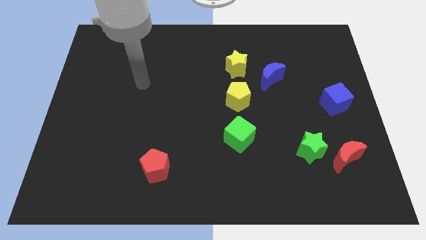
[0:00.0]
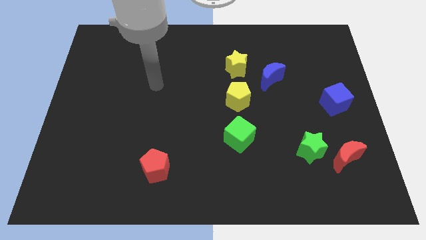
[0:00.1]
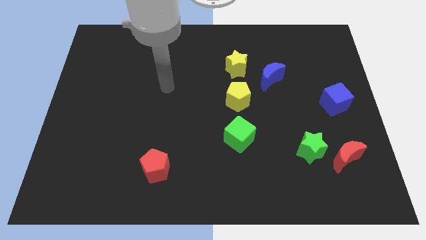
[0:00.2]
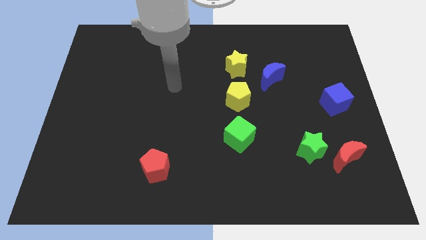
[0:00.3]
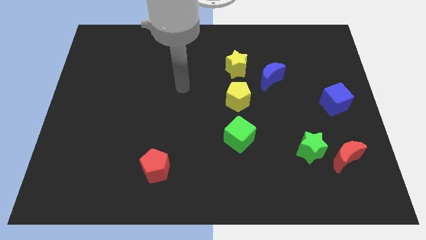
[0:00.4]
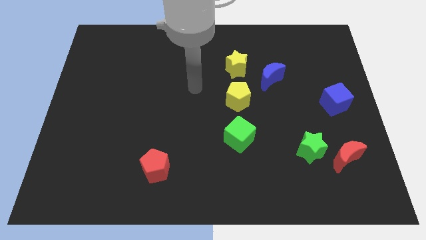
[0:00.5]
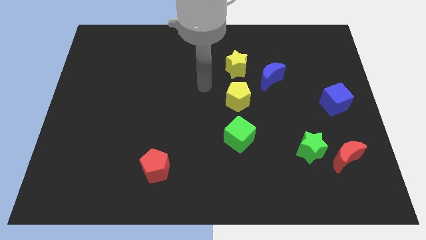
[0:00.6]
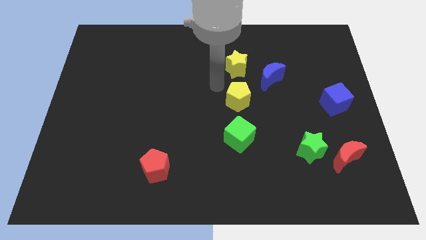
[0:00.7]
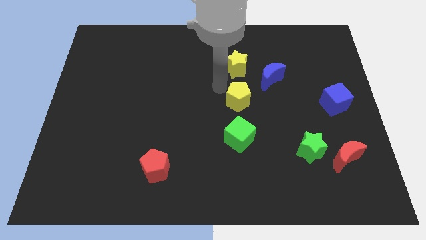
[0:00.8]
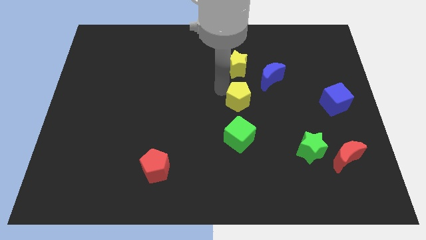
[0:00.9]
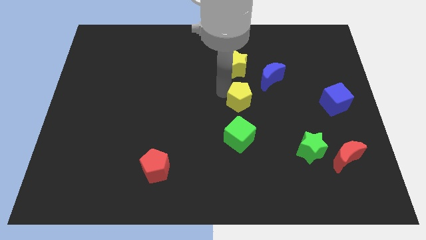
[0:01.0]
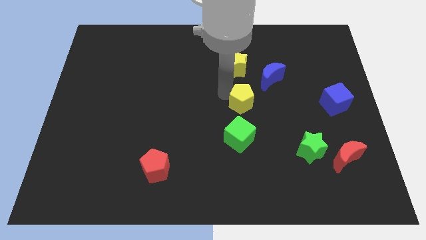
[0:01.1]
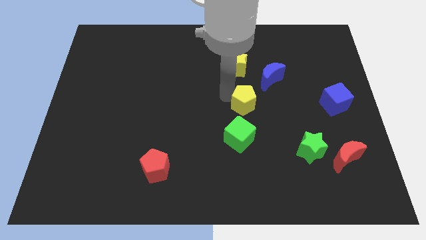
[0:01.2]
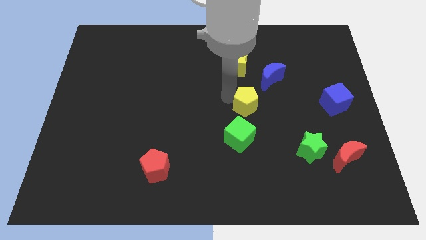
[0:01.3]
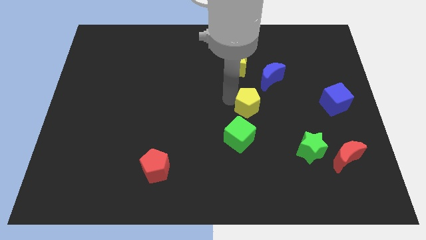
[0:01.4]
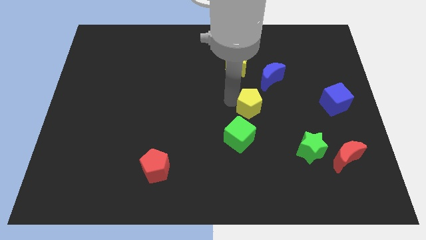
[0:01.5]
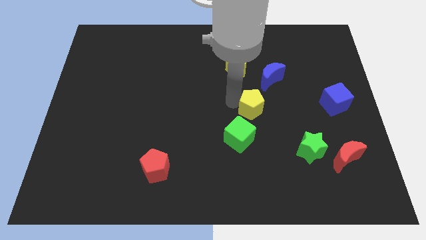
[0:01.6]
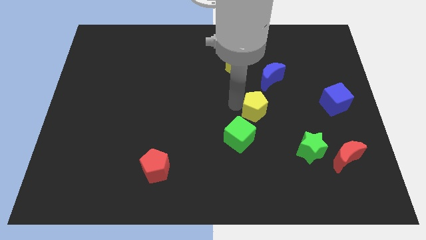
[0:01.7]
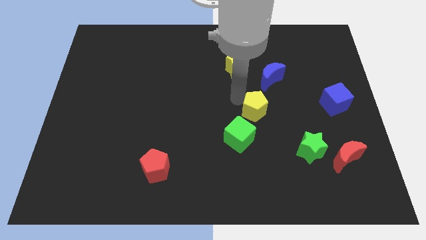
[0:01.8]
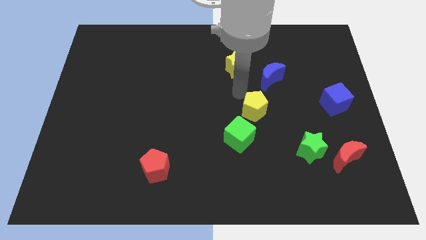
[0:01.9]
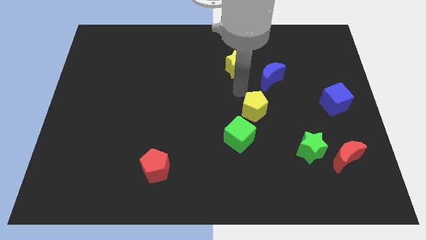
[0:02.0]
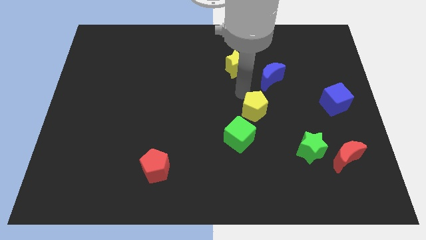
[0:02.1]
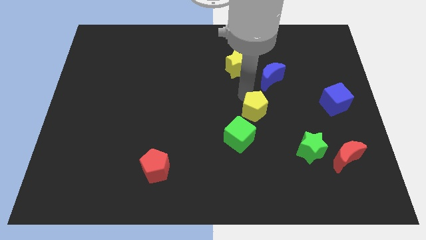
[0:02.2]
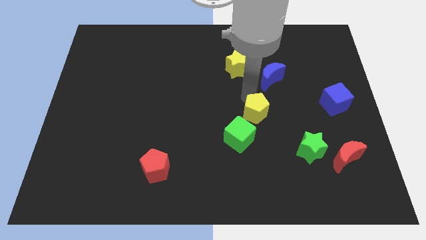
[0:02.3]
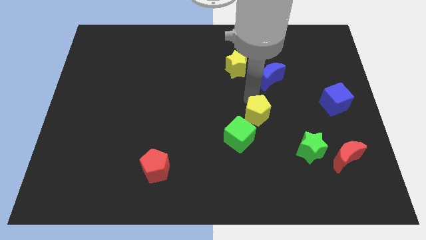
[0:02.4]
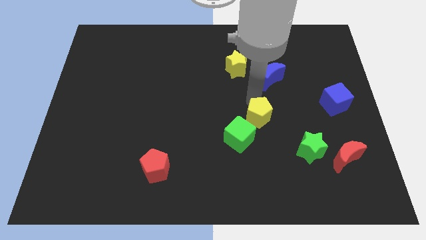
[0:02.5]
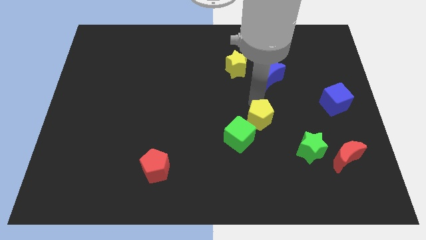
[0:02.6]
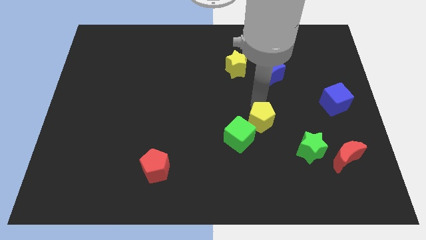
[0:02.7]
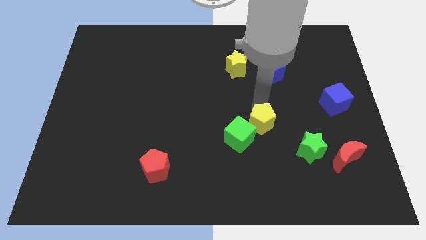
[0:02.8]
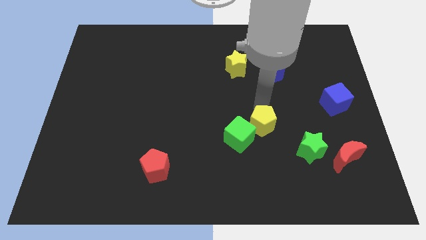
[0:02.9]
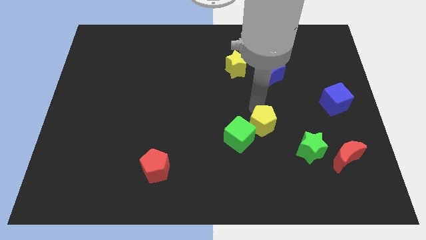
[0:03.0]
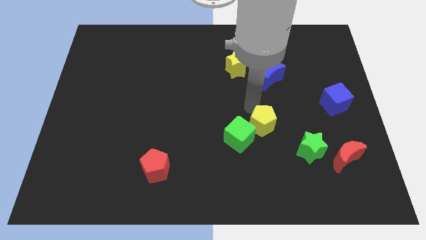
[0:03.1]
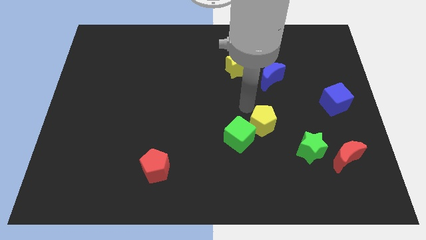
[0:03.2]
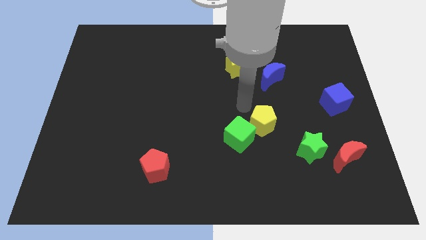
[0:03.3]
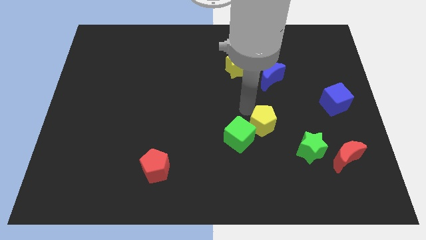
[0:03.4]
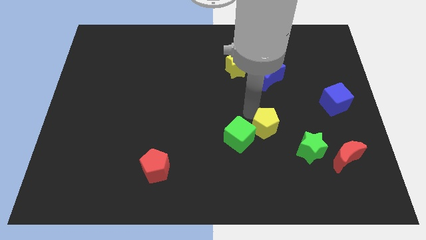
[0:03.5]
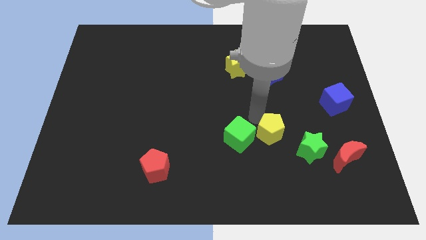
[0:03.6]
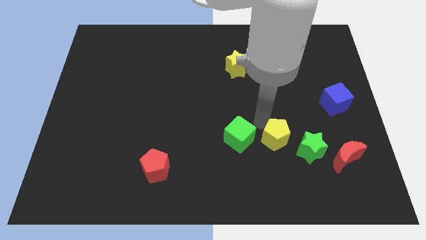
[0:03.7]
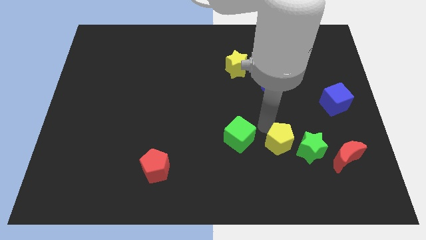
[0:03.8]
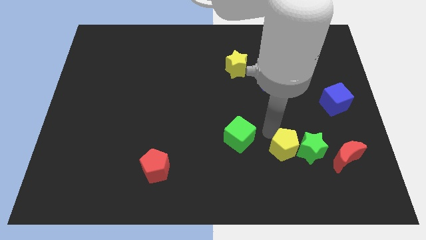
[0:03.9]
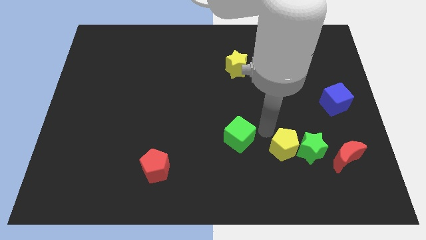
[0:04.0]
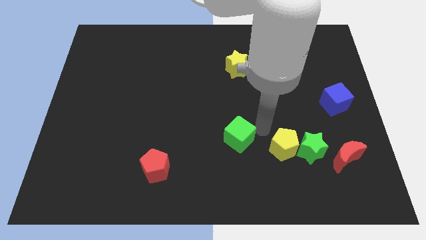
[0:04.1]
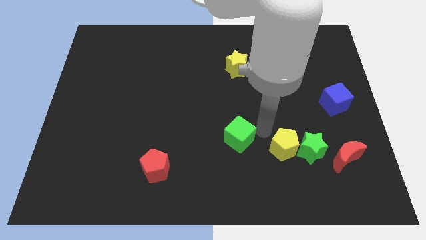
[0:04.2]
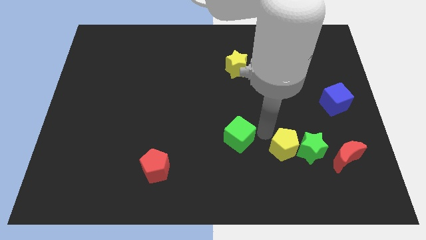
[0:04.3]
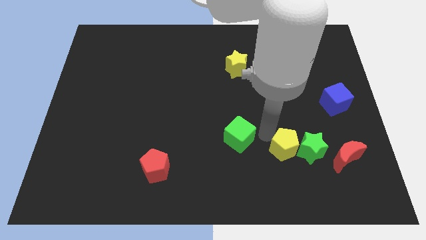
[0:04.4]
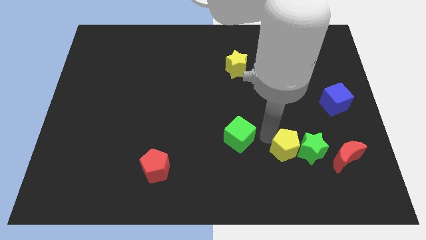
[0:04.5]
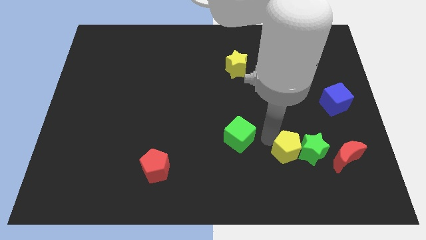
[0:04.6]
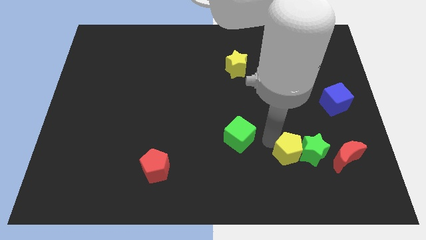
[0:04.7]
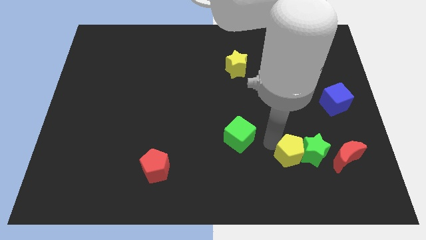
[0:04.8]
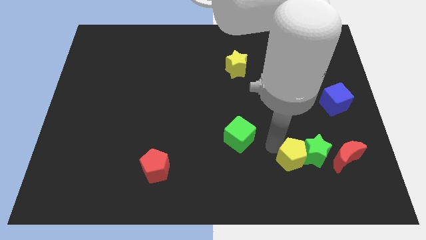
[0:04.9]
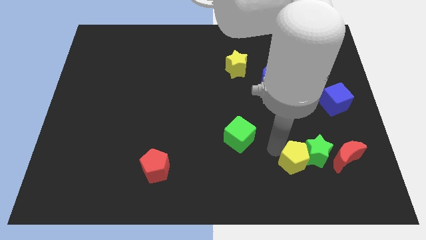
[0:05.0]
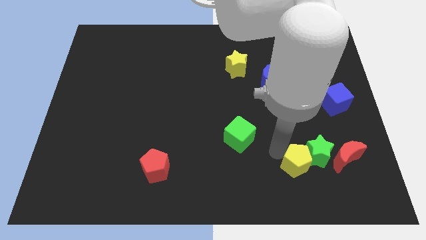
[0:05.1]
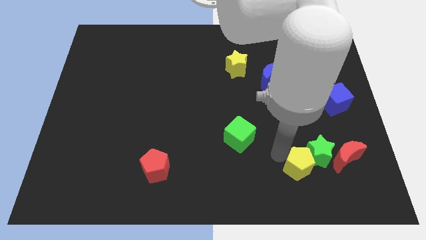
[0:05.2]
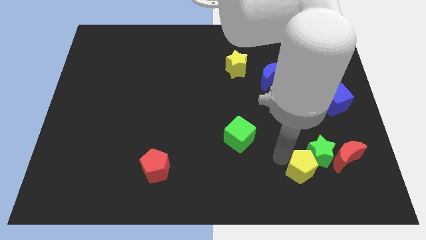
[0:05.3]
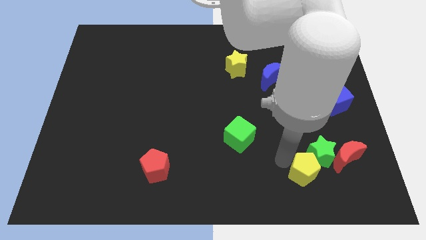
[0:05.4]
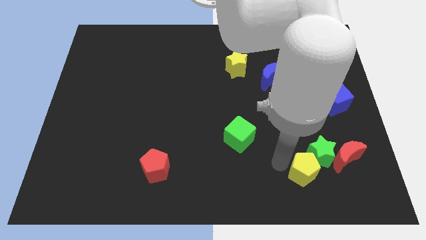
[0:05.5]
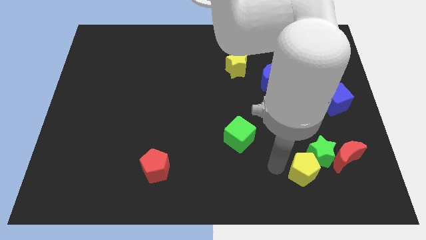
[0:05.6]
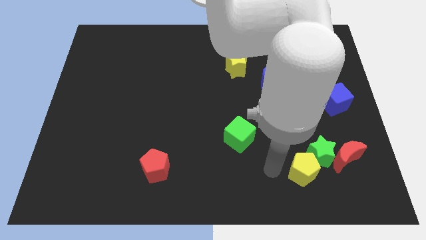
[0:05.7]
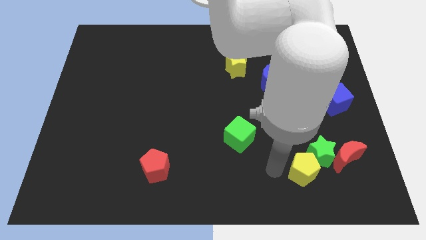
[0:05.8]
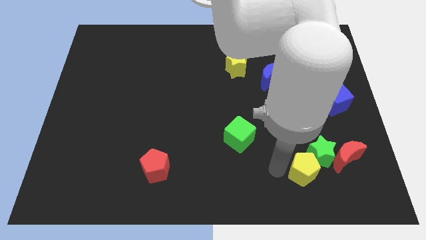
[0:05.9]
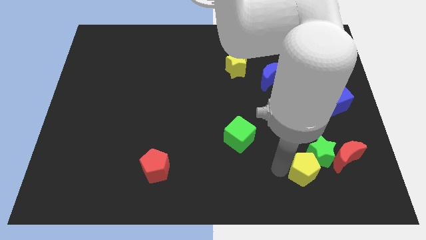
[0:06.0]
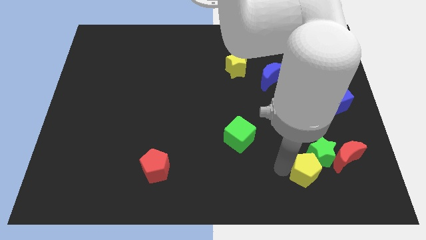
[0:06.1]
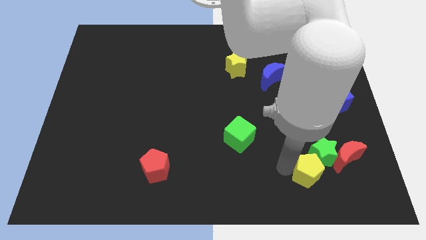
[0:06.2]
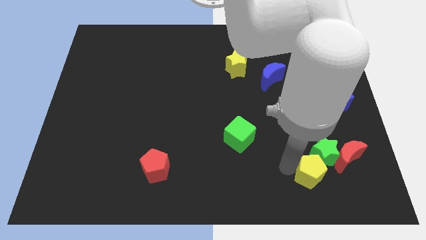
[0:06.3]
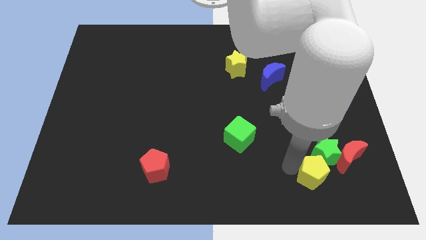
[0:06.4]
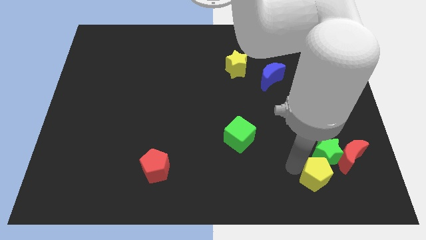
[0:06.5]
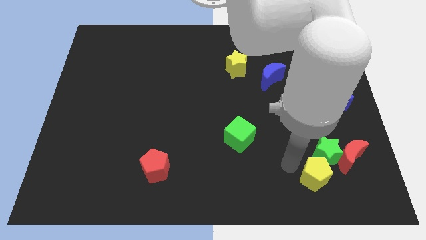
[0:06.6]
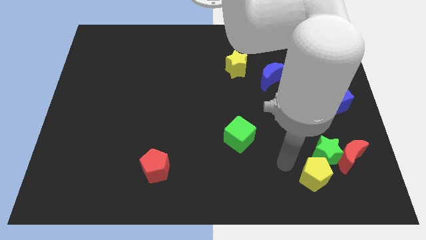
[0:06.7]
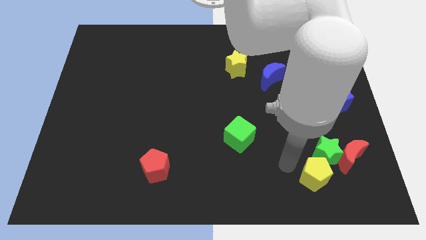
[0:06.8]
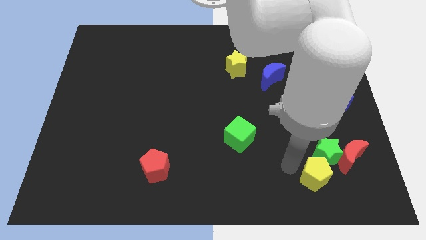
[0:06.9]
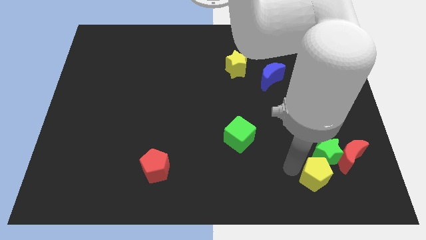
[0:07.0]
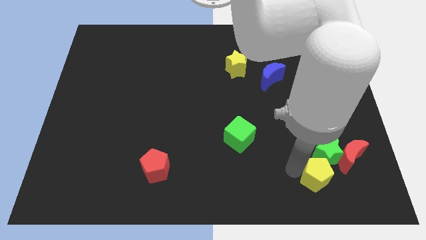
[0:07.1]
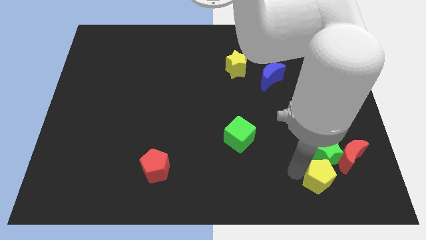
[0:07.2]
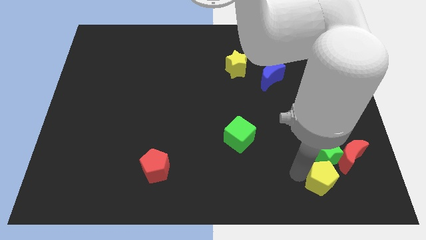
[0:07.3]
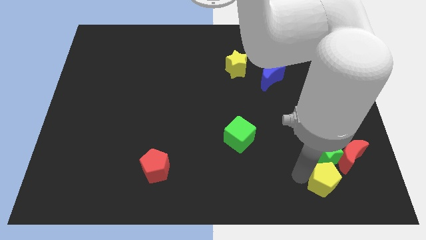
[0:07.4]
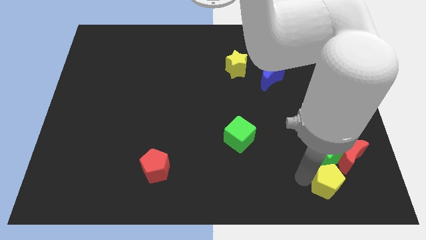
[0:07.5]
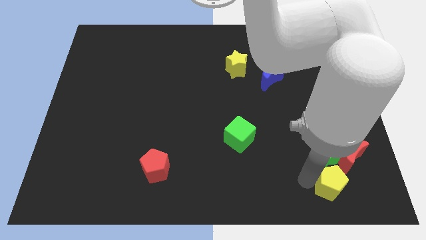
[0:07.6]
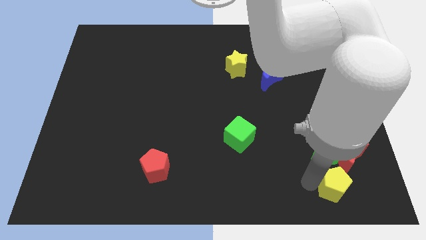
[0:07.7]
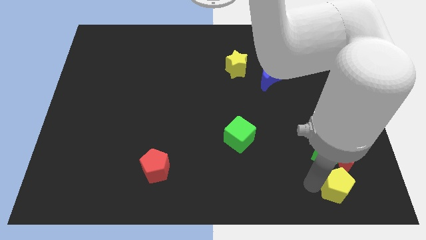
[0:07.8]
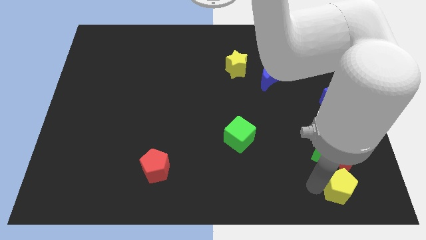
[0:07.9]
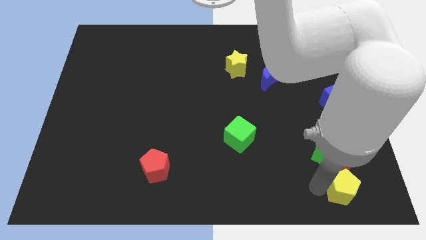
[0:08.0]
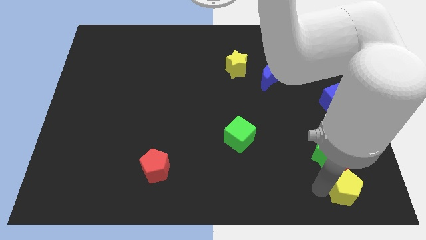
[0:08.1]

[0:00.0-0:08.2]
move the yellow pentagon to the bottom right
